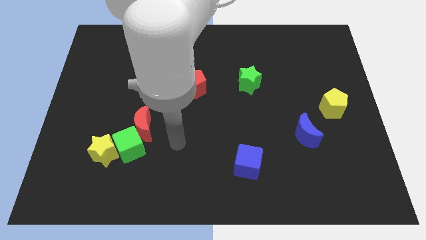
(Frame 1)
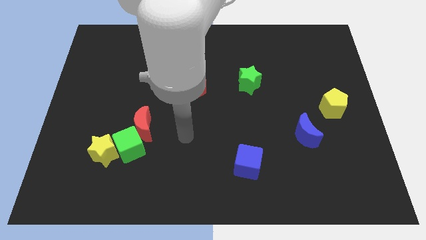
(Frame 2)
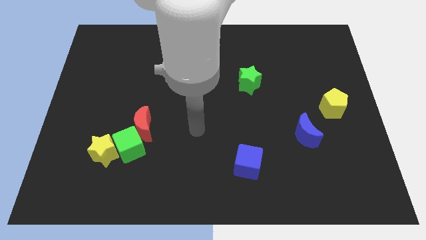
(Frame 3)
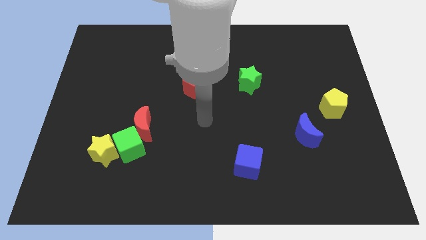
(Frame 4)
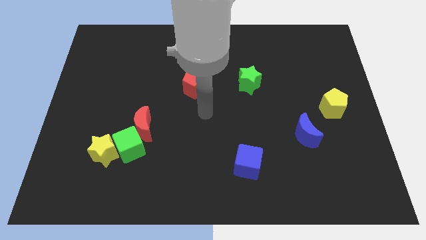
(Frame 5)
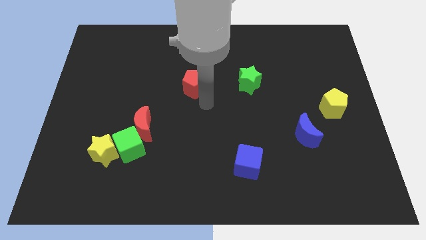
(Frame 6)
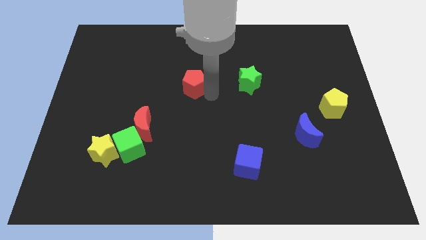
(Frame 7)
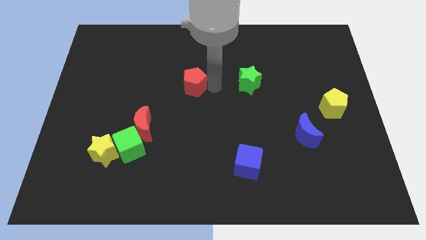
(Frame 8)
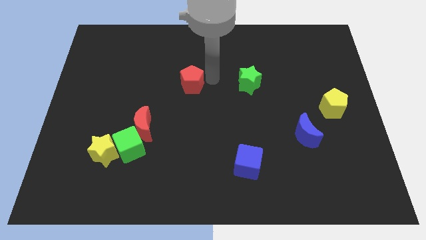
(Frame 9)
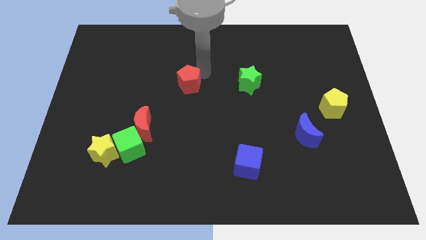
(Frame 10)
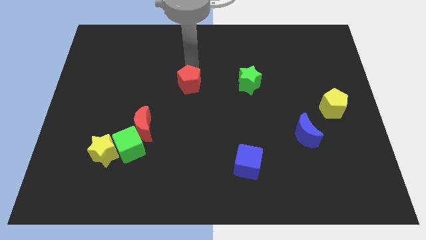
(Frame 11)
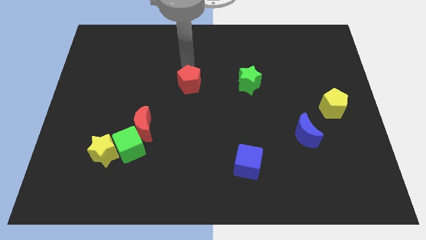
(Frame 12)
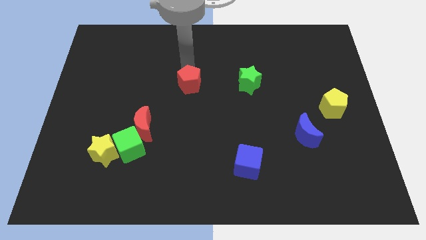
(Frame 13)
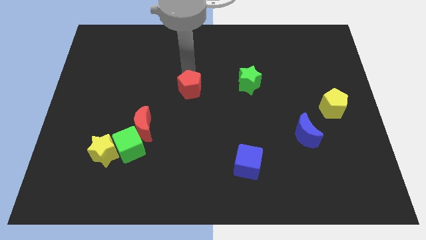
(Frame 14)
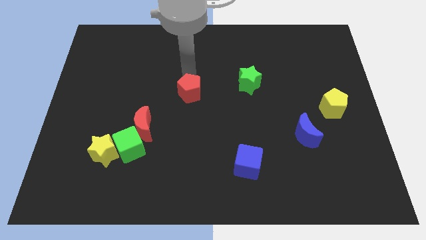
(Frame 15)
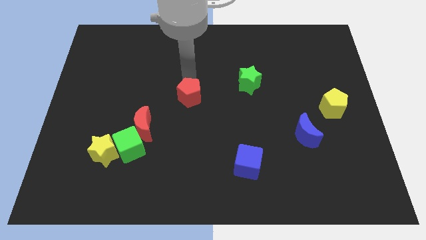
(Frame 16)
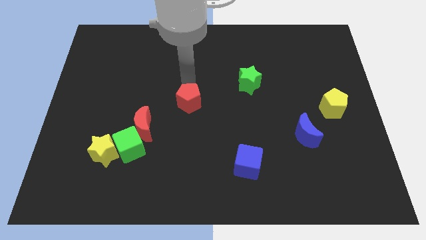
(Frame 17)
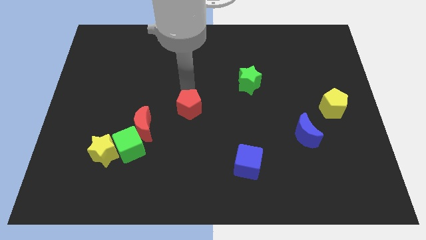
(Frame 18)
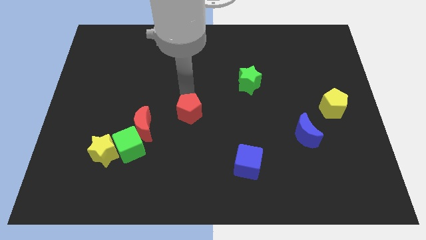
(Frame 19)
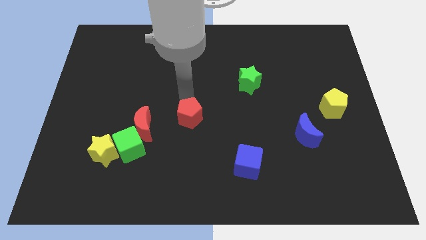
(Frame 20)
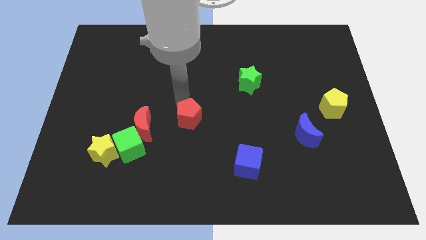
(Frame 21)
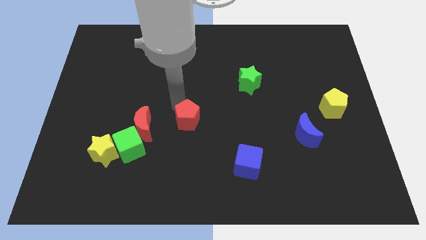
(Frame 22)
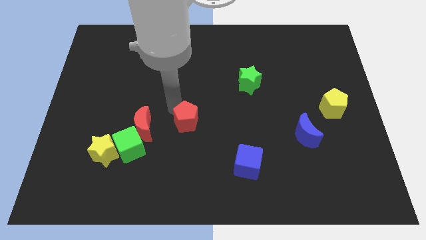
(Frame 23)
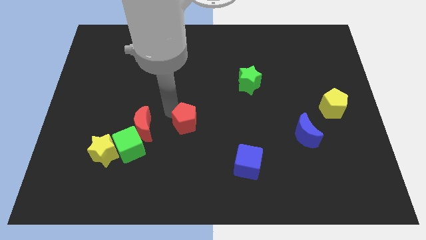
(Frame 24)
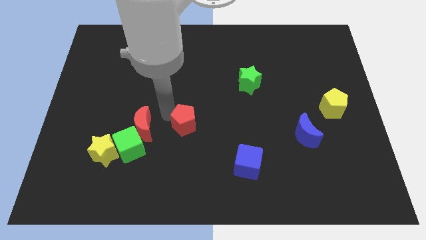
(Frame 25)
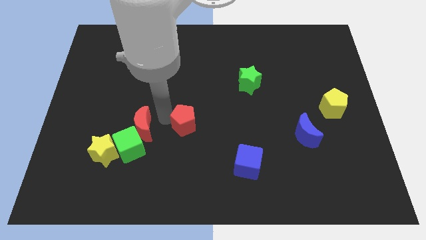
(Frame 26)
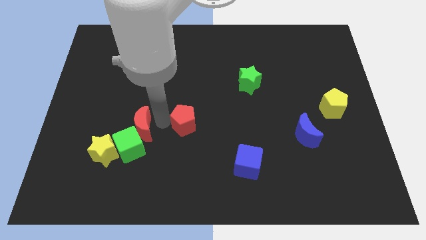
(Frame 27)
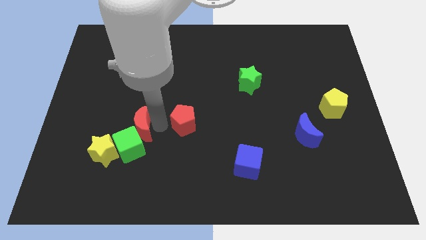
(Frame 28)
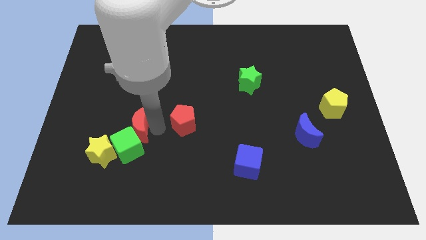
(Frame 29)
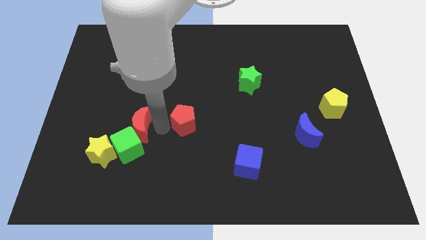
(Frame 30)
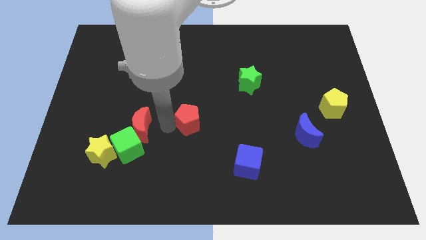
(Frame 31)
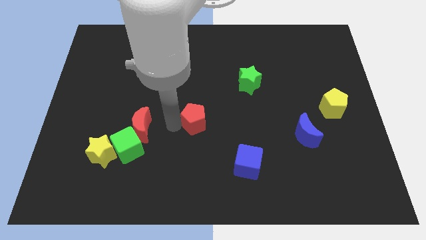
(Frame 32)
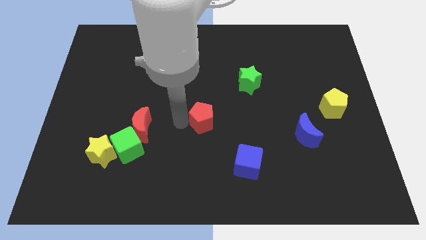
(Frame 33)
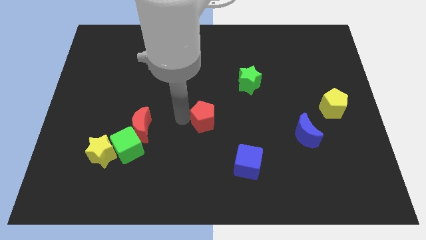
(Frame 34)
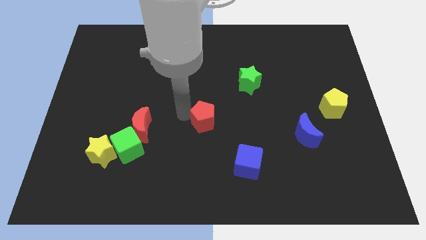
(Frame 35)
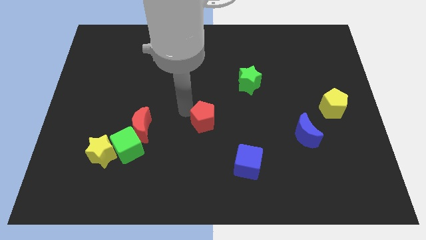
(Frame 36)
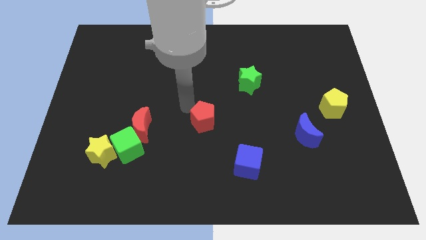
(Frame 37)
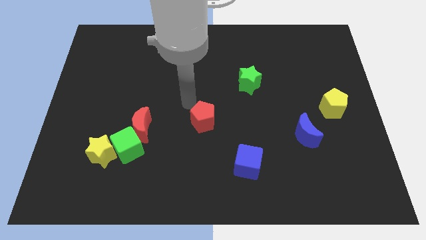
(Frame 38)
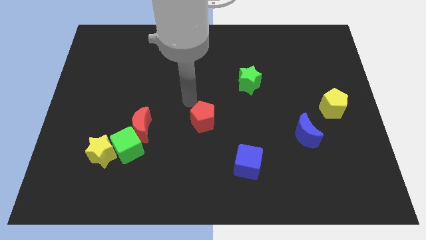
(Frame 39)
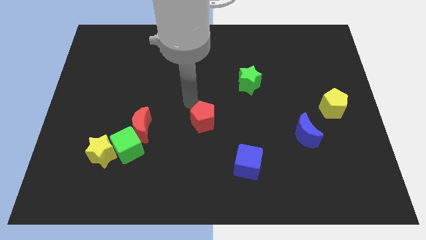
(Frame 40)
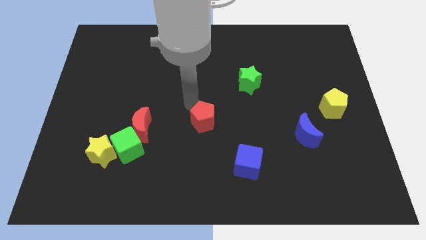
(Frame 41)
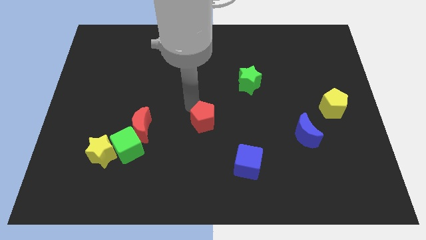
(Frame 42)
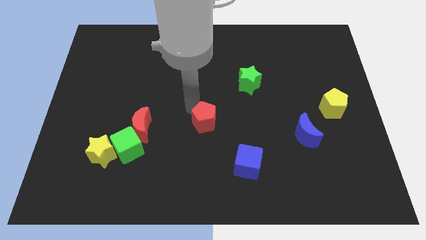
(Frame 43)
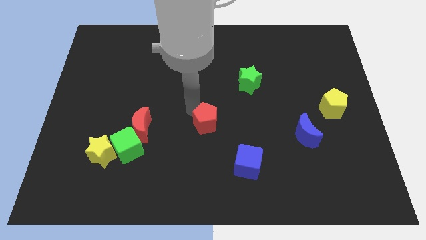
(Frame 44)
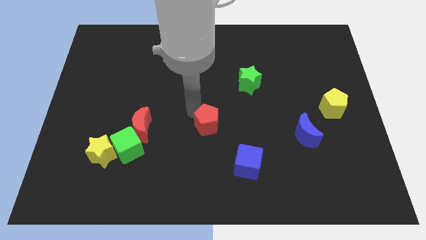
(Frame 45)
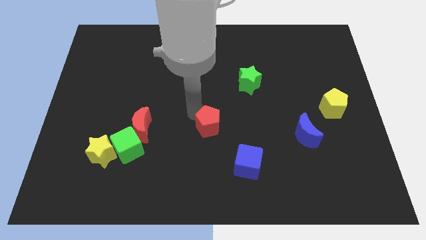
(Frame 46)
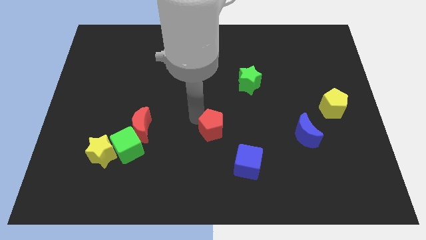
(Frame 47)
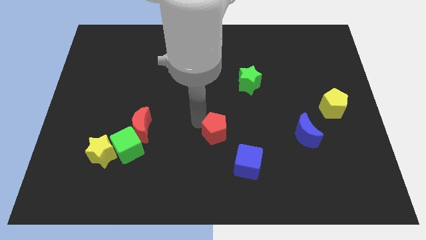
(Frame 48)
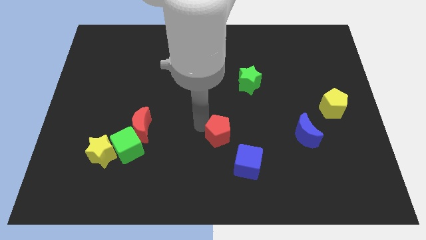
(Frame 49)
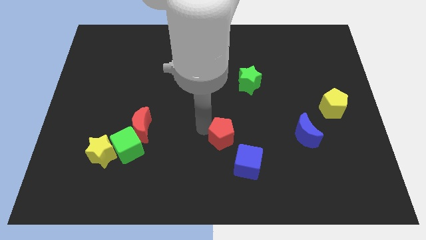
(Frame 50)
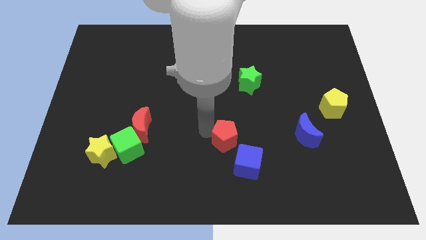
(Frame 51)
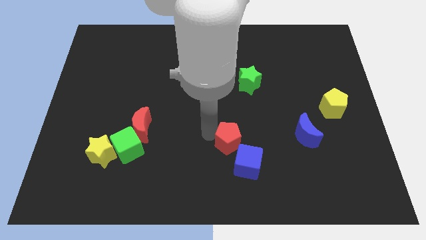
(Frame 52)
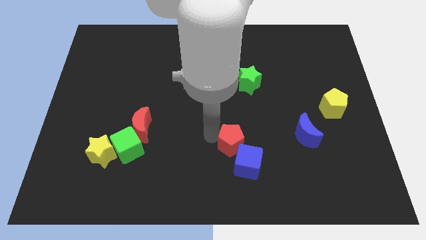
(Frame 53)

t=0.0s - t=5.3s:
move the red pentagon next to the blue cube

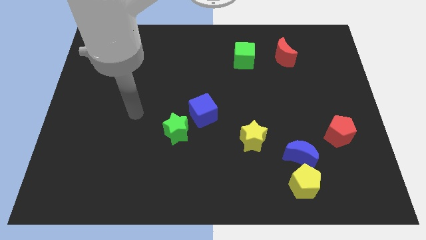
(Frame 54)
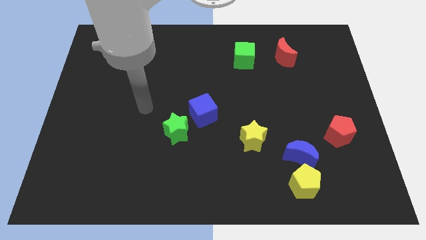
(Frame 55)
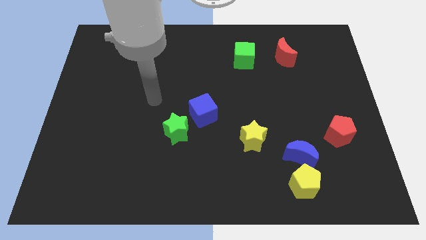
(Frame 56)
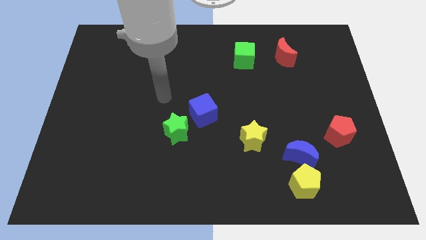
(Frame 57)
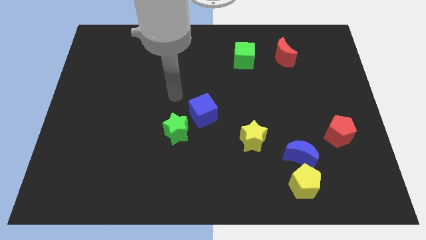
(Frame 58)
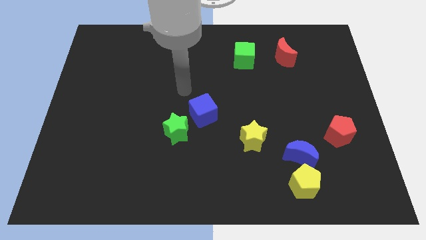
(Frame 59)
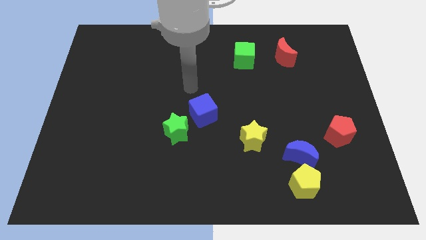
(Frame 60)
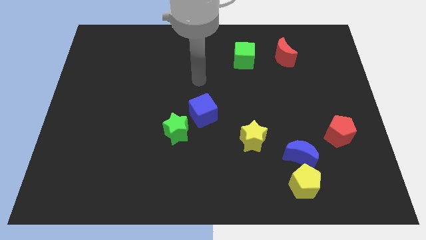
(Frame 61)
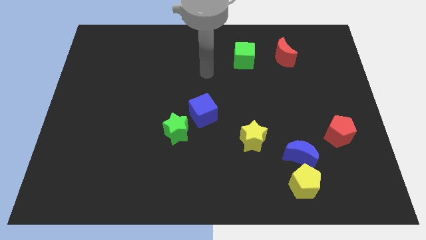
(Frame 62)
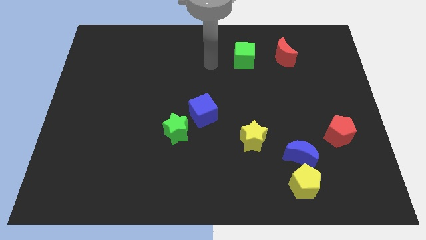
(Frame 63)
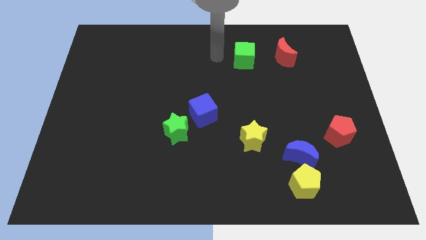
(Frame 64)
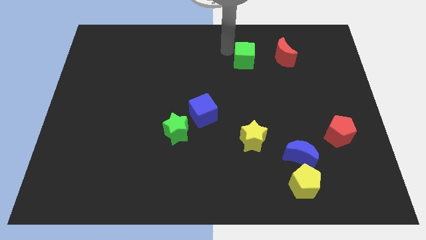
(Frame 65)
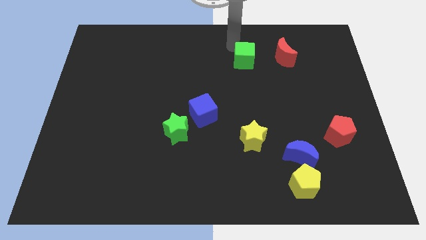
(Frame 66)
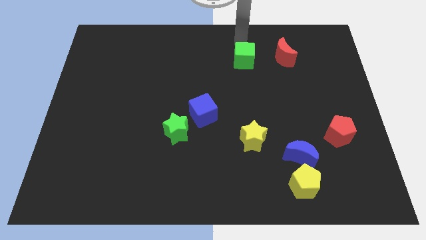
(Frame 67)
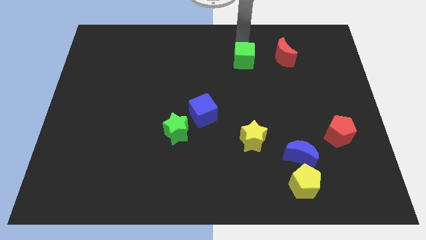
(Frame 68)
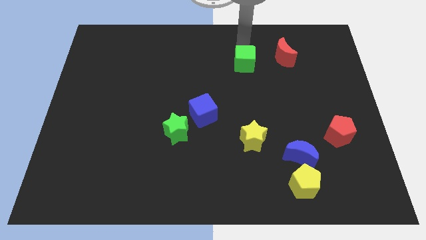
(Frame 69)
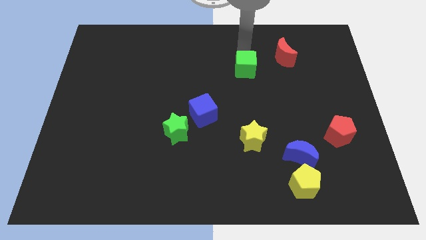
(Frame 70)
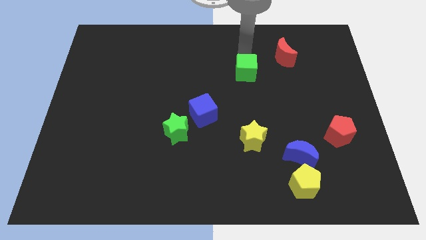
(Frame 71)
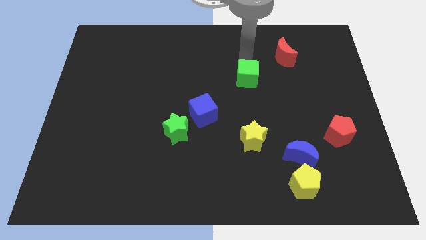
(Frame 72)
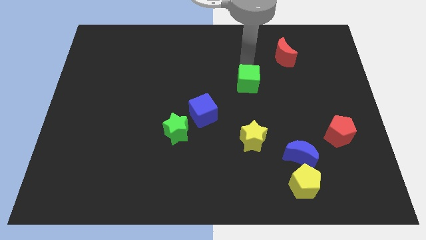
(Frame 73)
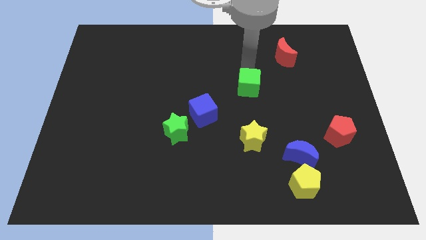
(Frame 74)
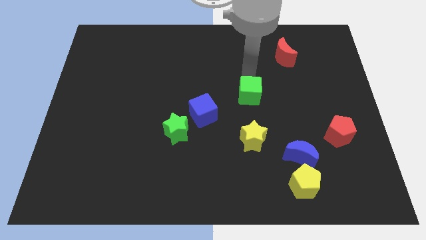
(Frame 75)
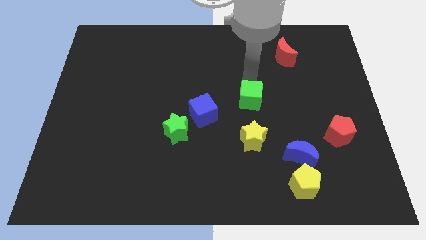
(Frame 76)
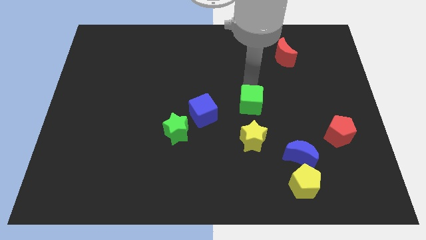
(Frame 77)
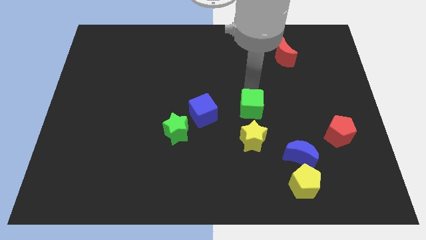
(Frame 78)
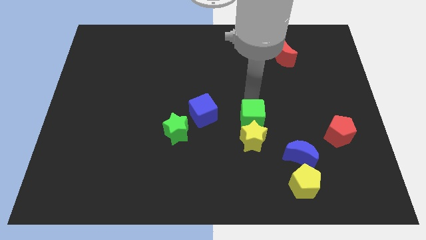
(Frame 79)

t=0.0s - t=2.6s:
push the green cube next to the yellow star
